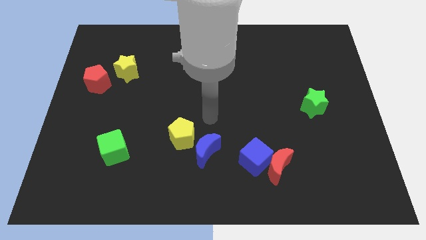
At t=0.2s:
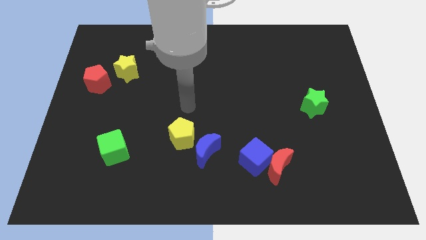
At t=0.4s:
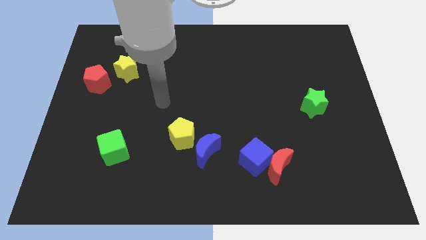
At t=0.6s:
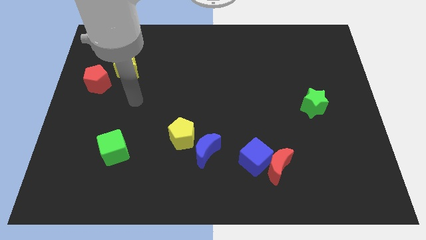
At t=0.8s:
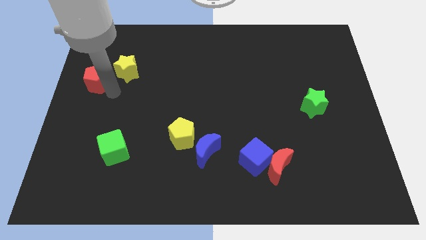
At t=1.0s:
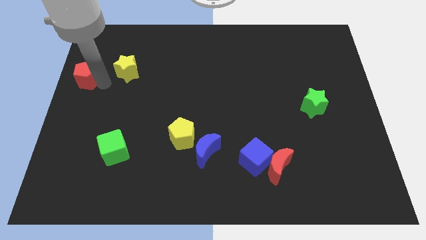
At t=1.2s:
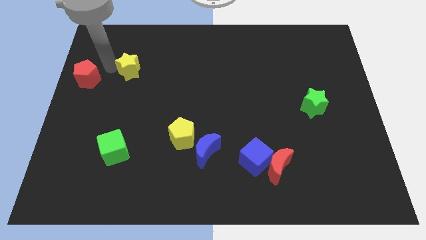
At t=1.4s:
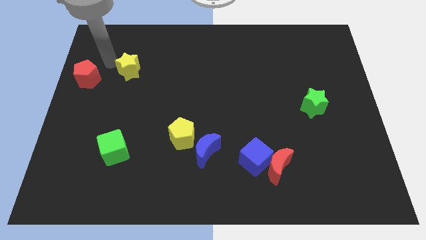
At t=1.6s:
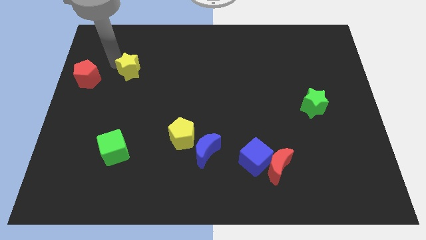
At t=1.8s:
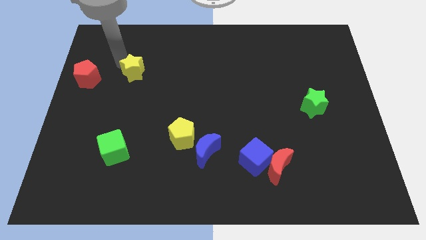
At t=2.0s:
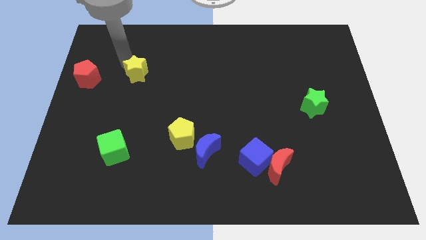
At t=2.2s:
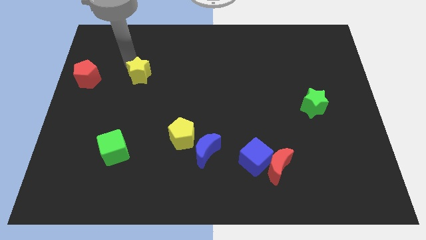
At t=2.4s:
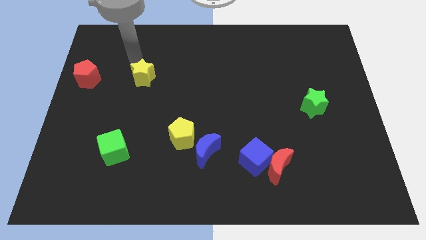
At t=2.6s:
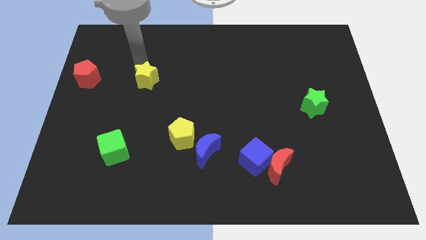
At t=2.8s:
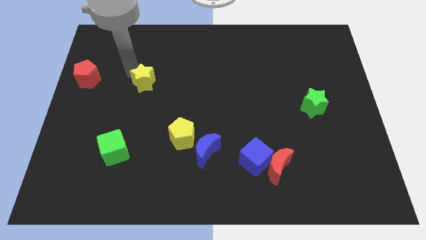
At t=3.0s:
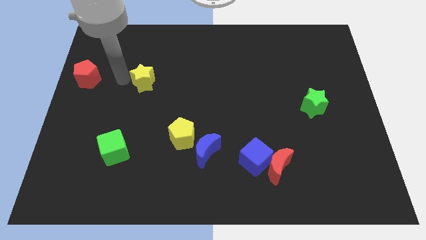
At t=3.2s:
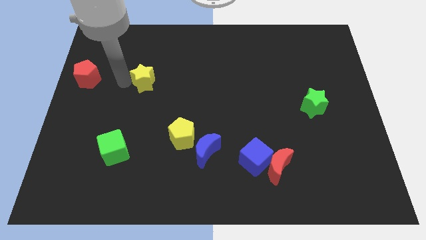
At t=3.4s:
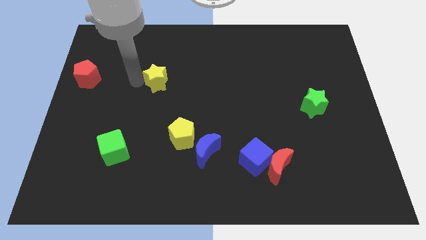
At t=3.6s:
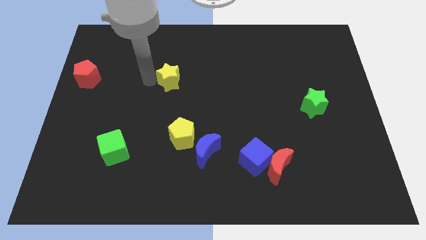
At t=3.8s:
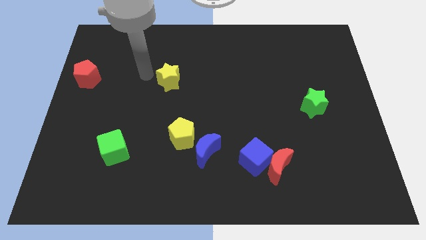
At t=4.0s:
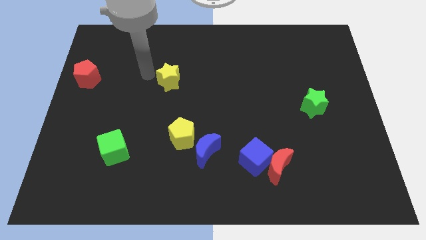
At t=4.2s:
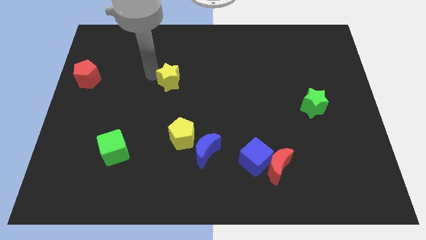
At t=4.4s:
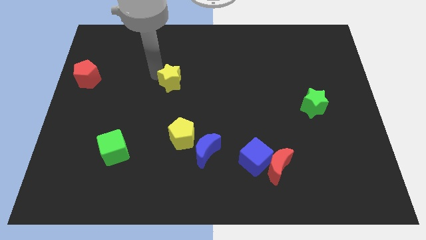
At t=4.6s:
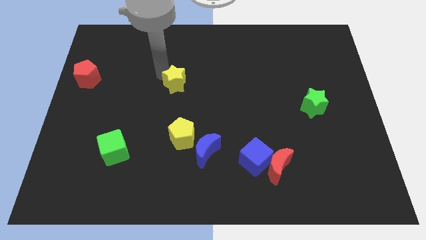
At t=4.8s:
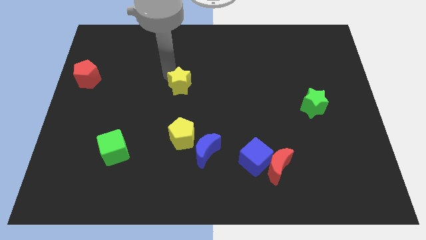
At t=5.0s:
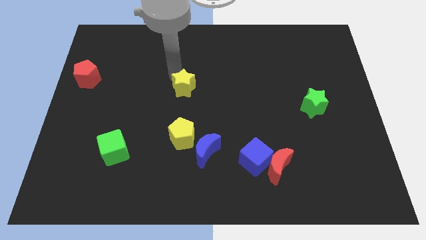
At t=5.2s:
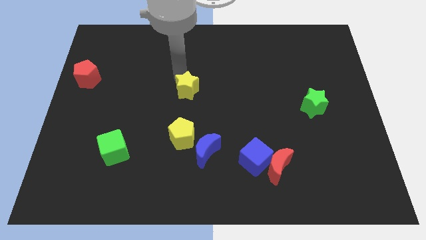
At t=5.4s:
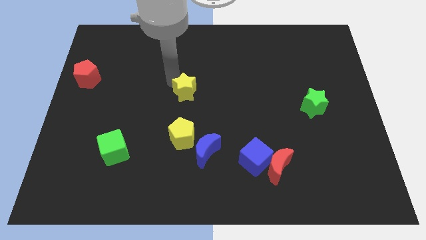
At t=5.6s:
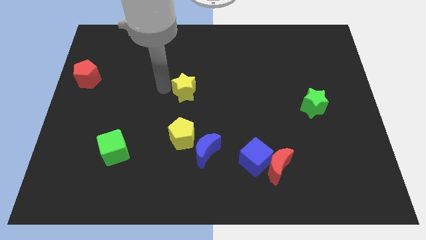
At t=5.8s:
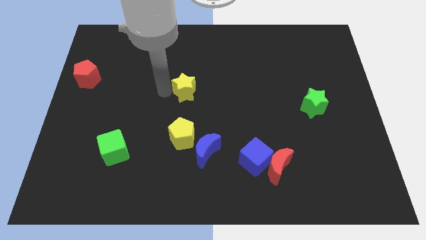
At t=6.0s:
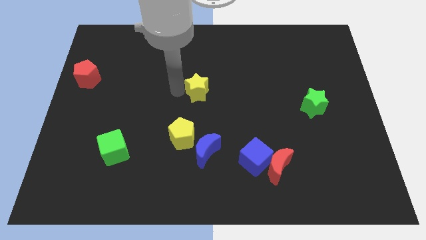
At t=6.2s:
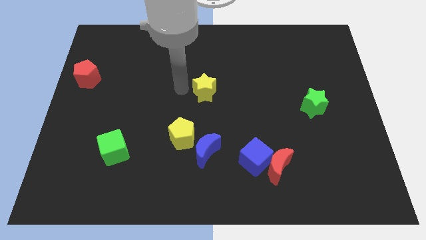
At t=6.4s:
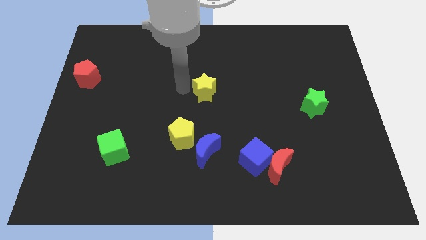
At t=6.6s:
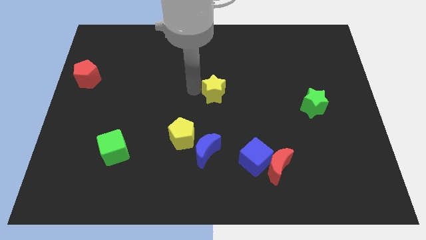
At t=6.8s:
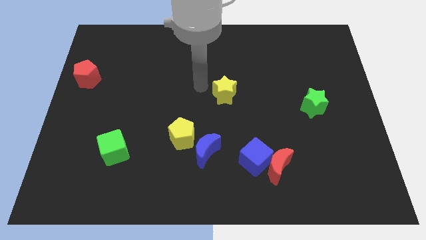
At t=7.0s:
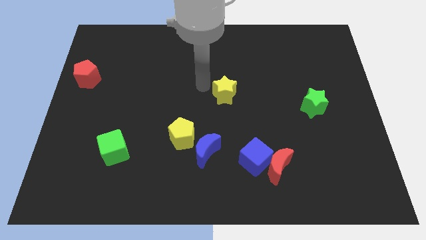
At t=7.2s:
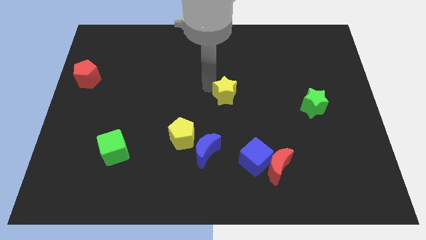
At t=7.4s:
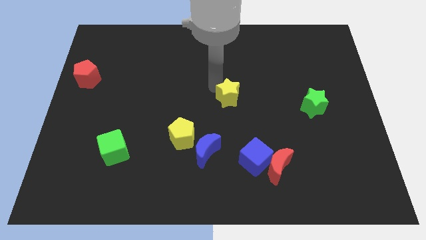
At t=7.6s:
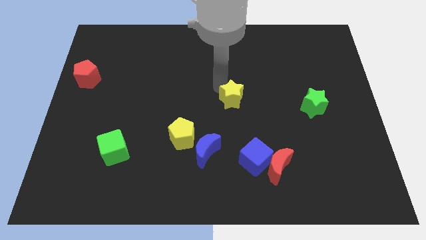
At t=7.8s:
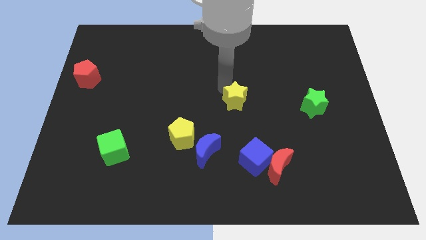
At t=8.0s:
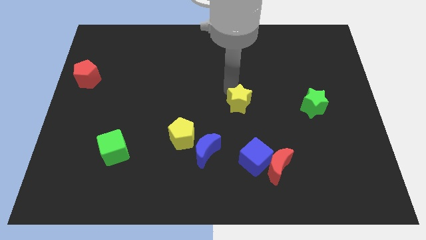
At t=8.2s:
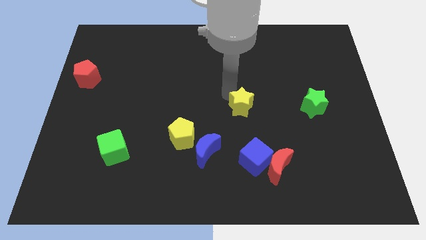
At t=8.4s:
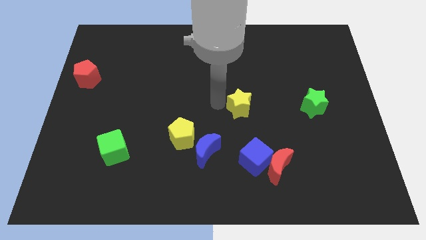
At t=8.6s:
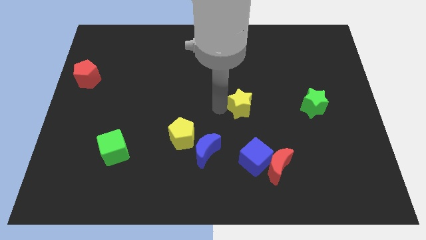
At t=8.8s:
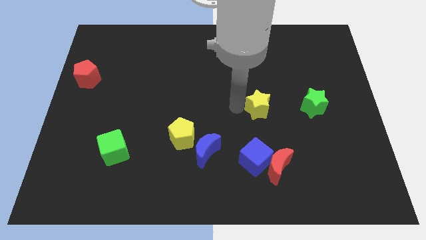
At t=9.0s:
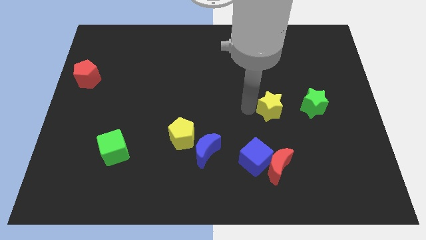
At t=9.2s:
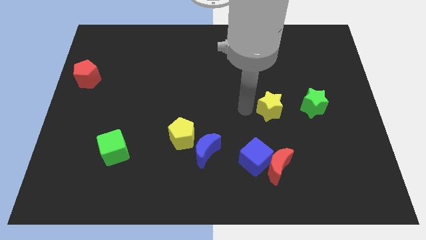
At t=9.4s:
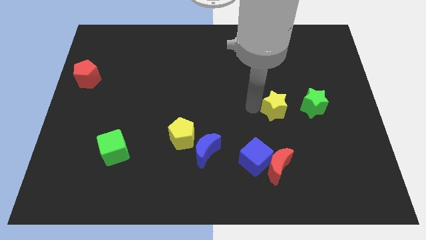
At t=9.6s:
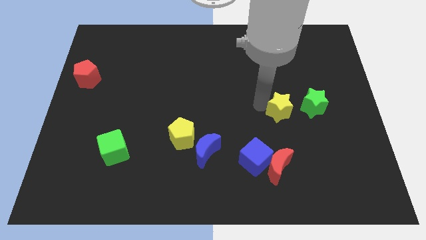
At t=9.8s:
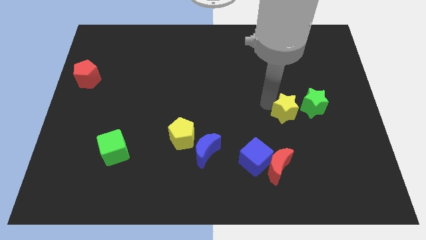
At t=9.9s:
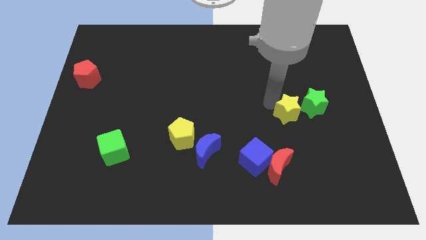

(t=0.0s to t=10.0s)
slide the yellow star next to the green star
